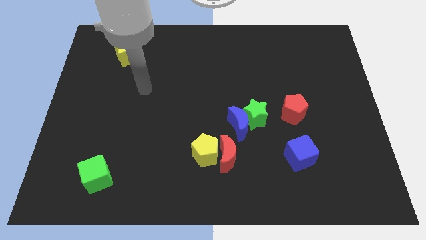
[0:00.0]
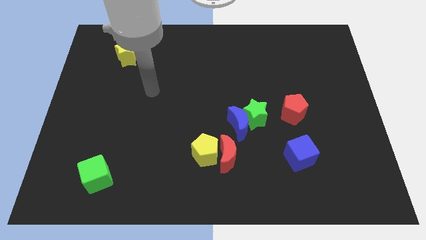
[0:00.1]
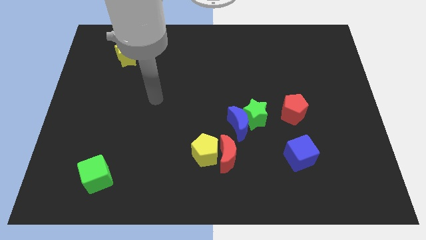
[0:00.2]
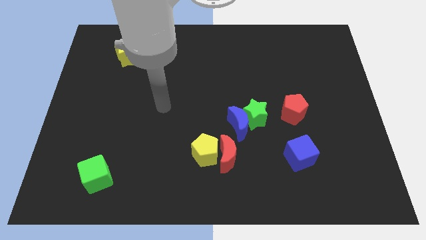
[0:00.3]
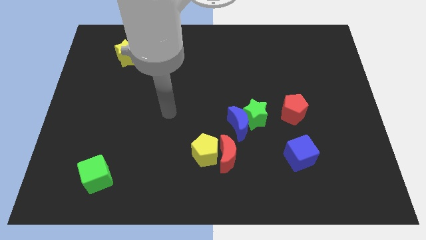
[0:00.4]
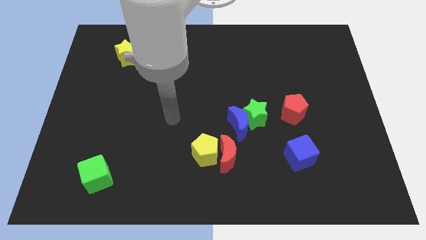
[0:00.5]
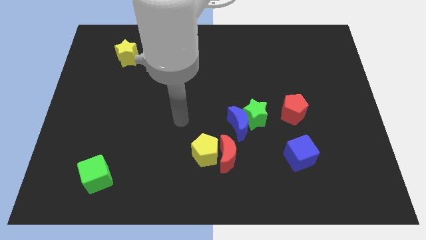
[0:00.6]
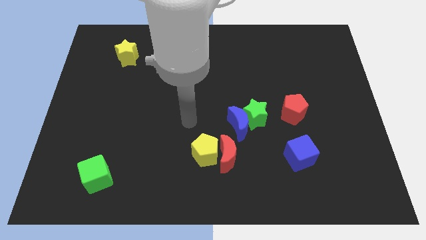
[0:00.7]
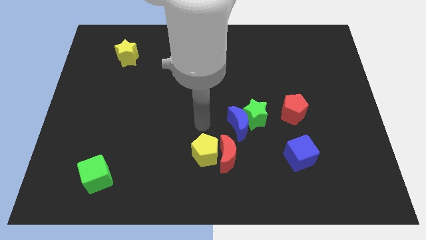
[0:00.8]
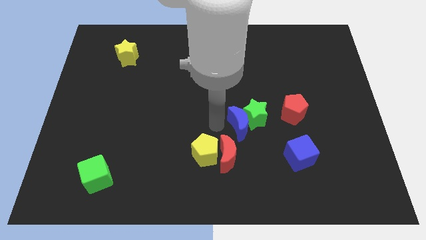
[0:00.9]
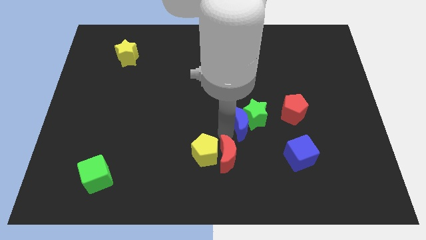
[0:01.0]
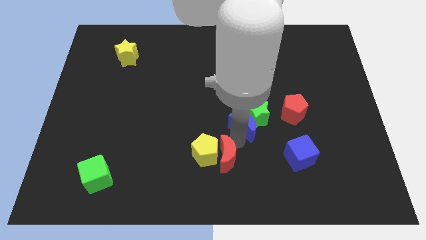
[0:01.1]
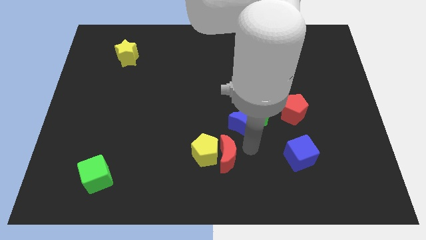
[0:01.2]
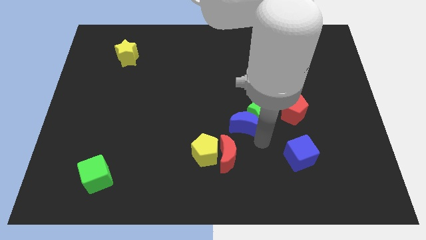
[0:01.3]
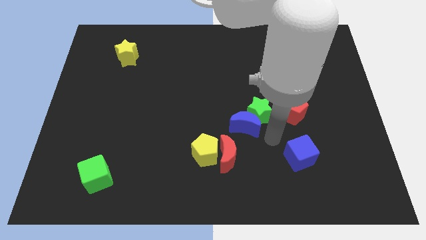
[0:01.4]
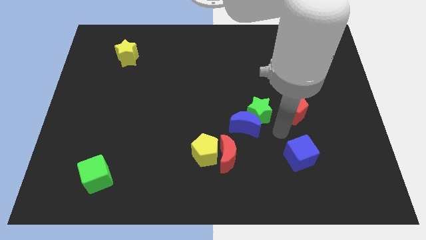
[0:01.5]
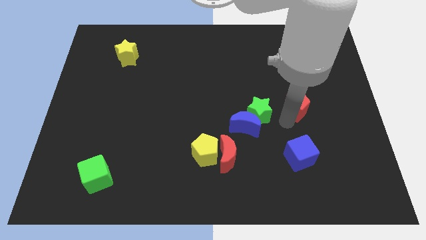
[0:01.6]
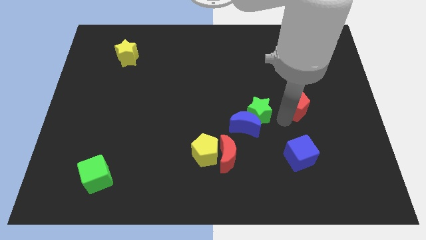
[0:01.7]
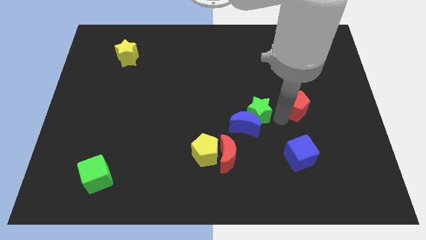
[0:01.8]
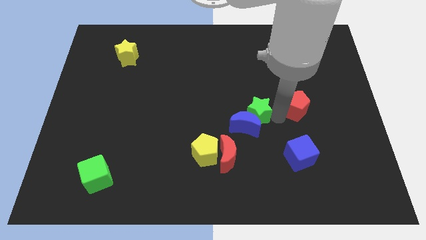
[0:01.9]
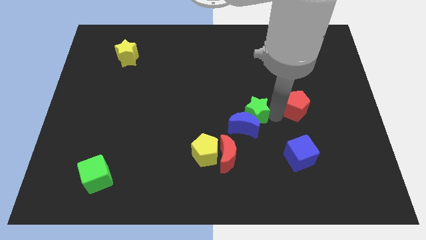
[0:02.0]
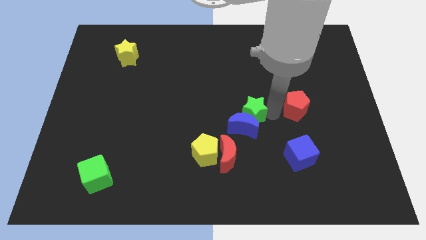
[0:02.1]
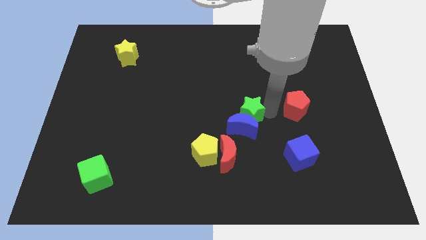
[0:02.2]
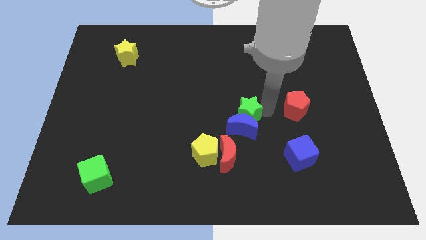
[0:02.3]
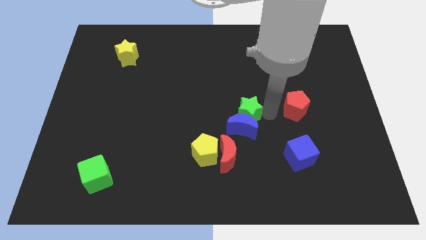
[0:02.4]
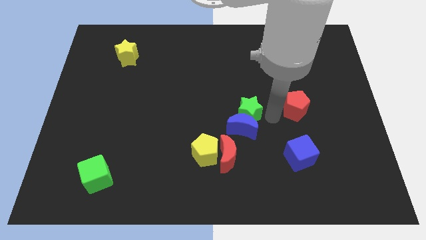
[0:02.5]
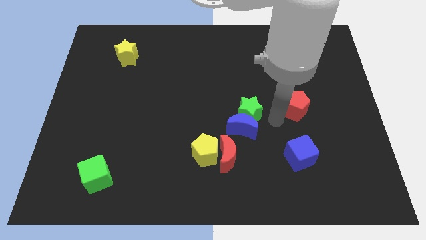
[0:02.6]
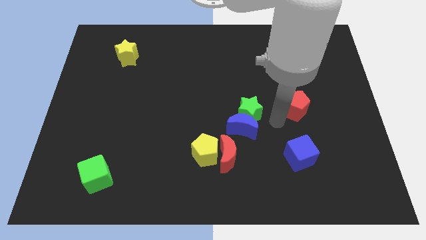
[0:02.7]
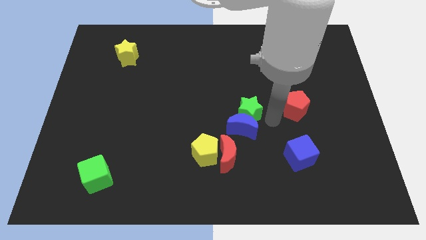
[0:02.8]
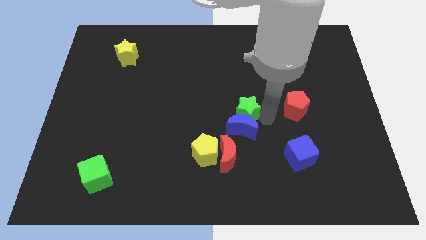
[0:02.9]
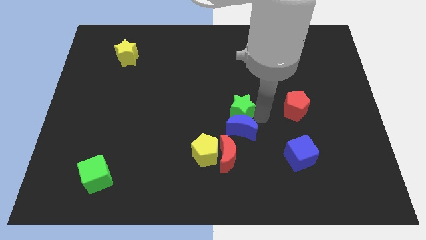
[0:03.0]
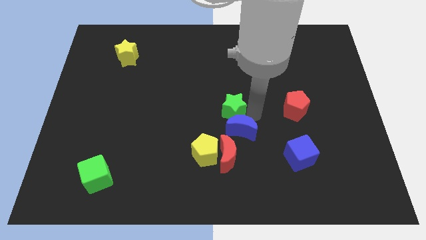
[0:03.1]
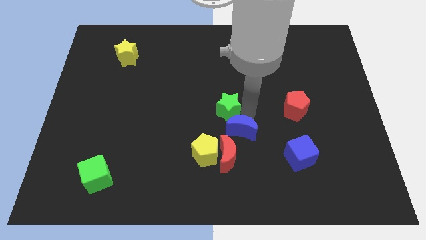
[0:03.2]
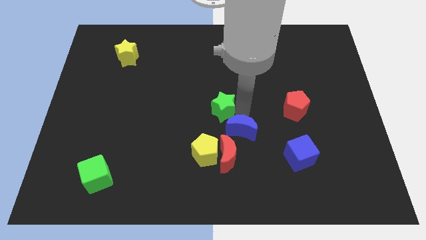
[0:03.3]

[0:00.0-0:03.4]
separate the green star from the blue moon and red pentagon

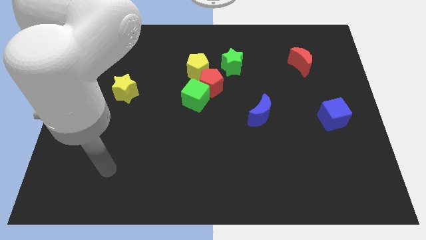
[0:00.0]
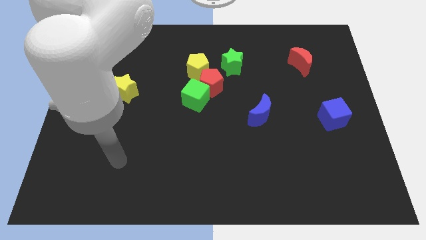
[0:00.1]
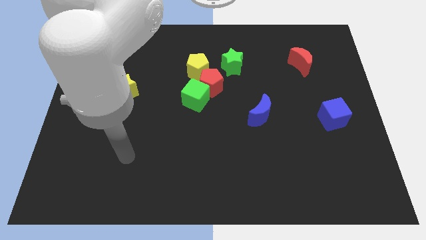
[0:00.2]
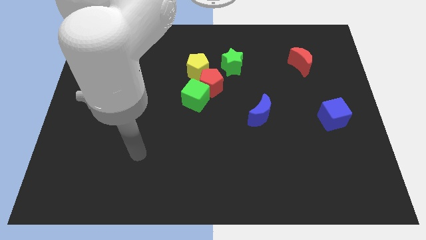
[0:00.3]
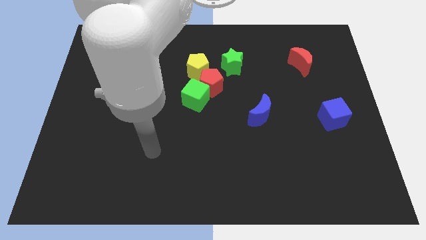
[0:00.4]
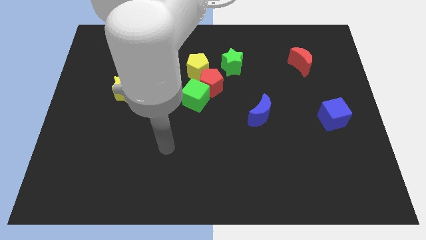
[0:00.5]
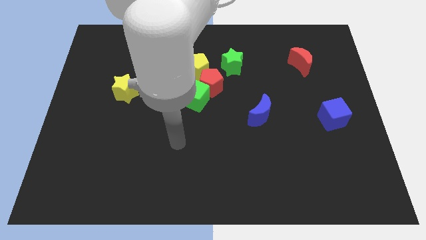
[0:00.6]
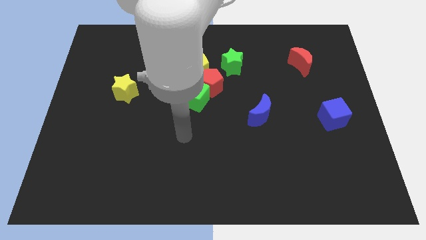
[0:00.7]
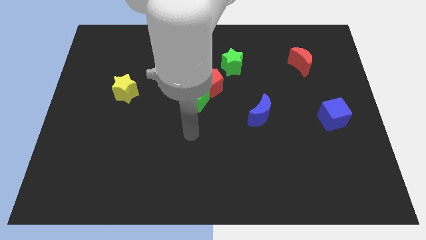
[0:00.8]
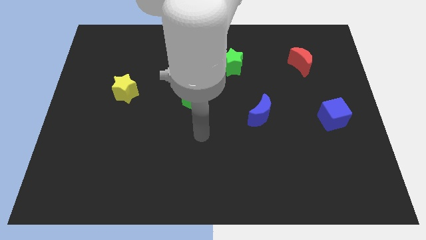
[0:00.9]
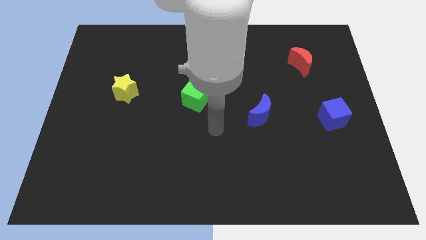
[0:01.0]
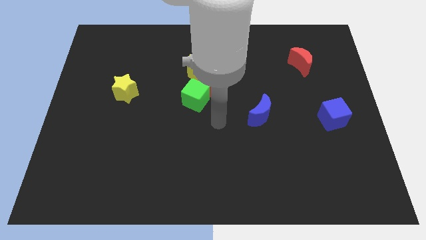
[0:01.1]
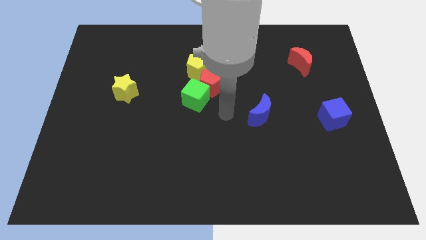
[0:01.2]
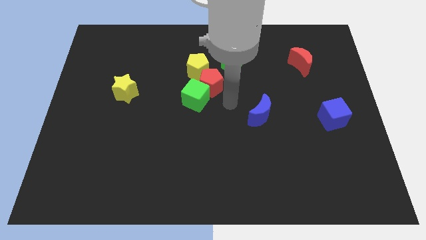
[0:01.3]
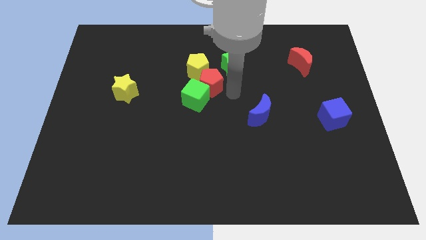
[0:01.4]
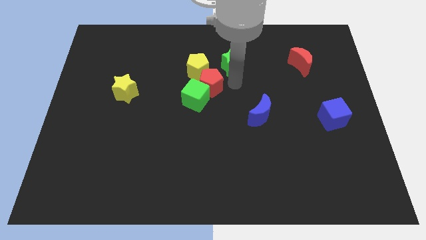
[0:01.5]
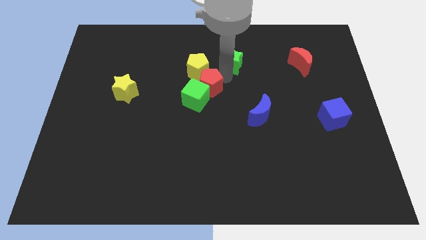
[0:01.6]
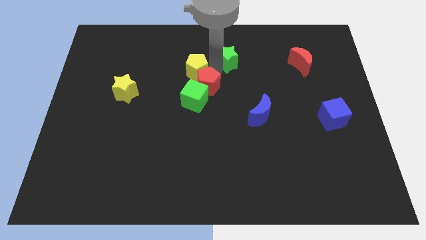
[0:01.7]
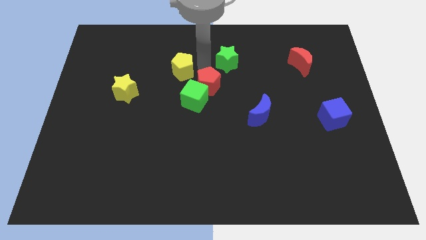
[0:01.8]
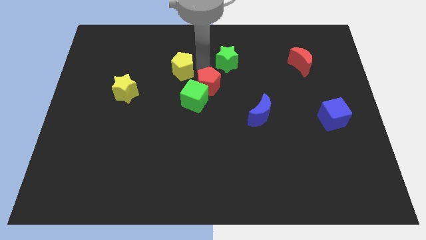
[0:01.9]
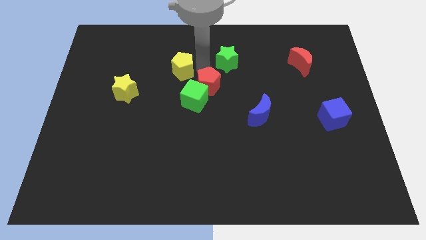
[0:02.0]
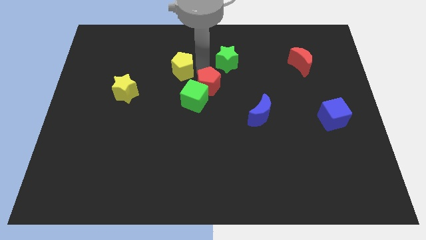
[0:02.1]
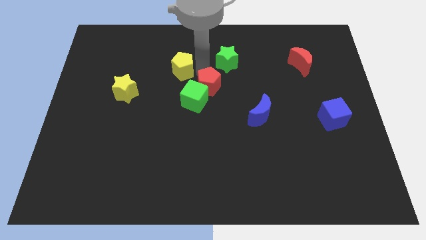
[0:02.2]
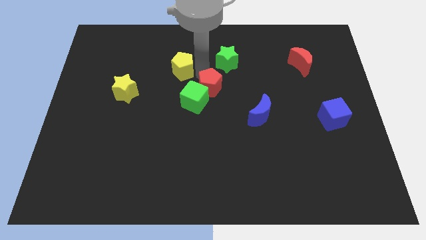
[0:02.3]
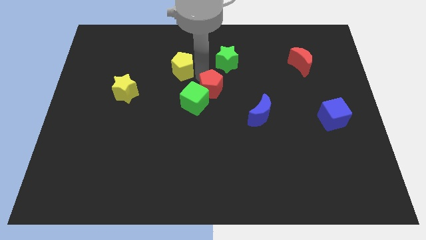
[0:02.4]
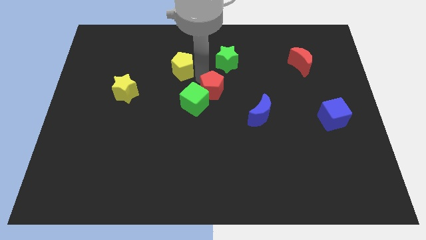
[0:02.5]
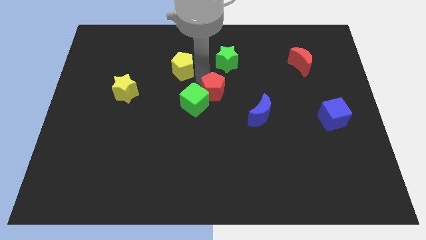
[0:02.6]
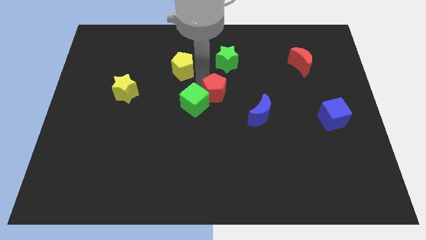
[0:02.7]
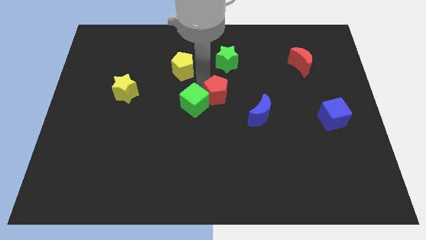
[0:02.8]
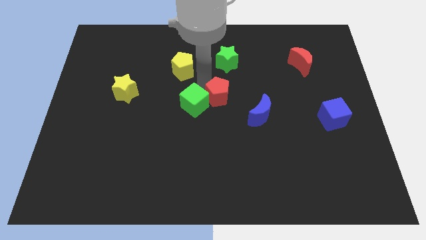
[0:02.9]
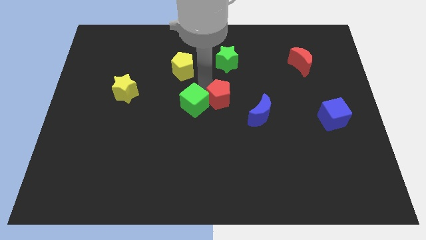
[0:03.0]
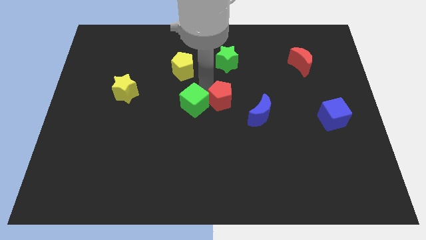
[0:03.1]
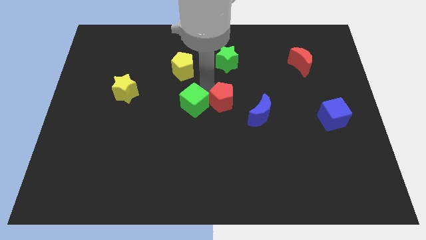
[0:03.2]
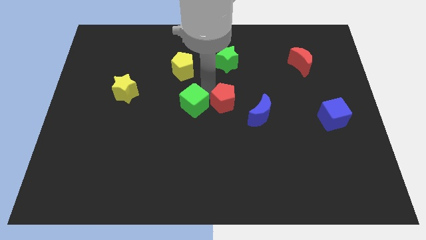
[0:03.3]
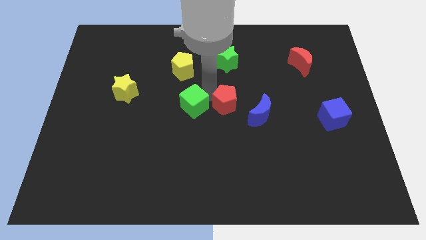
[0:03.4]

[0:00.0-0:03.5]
separate the red pentagon from the group
